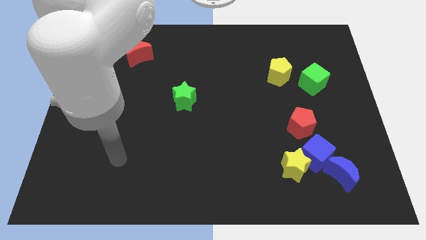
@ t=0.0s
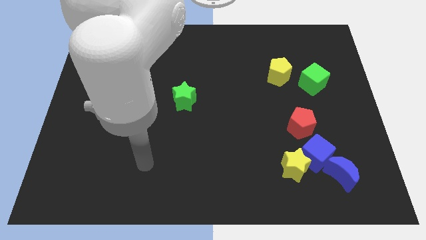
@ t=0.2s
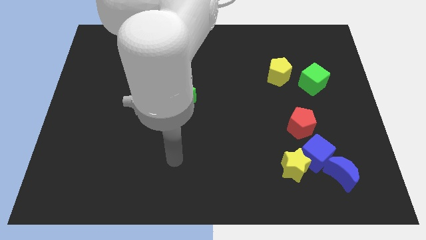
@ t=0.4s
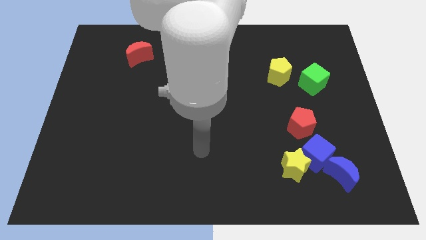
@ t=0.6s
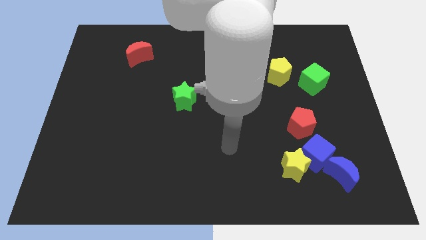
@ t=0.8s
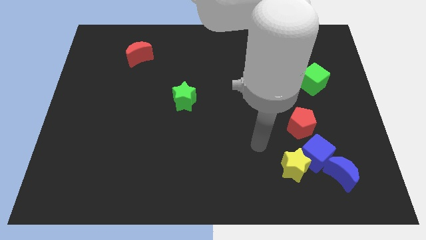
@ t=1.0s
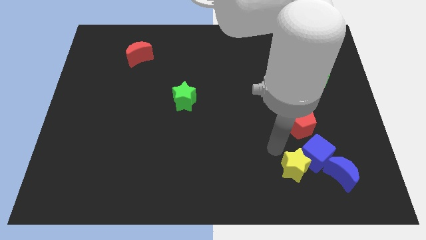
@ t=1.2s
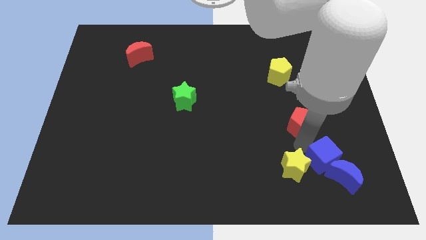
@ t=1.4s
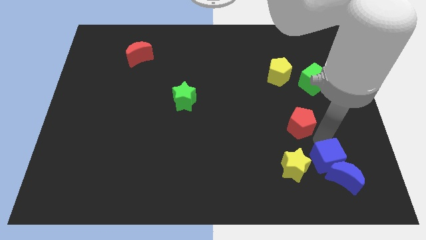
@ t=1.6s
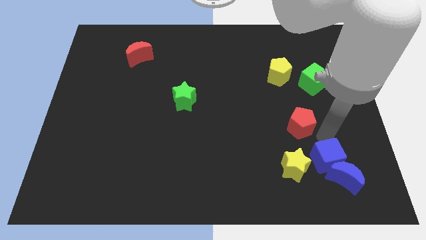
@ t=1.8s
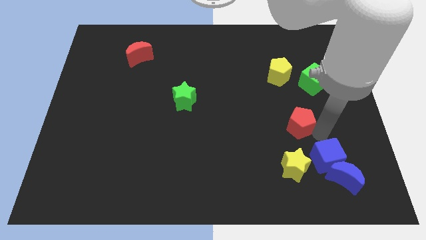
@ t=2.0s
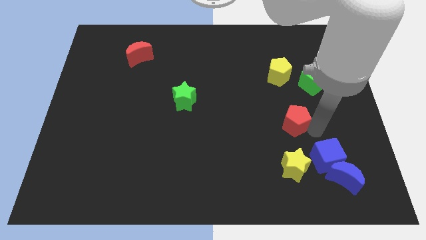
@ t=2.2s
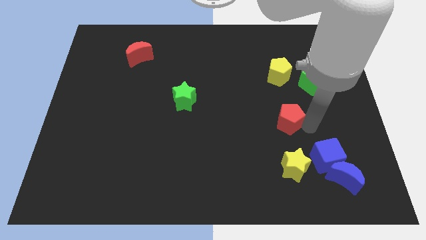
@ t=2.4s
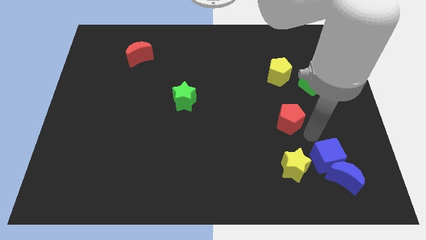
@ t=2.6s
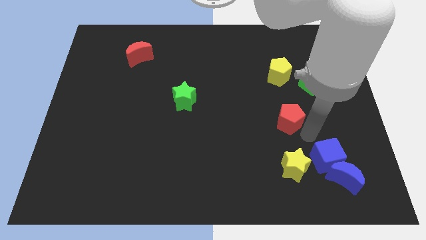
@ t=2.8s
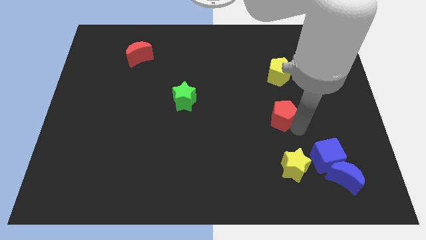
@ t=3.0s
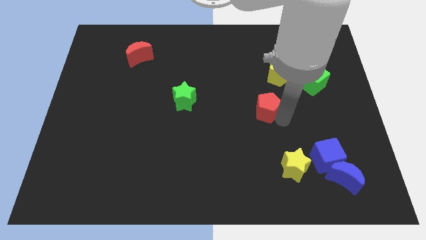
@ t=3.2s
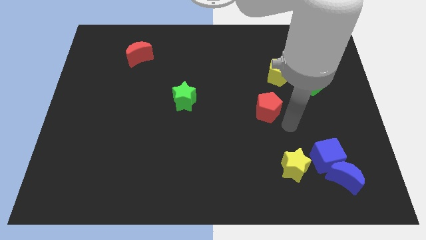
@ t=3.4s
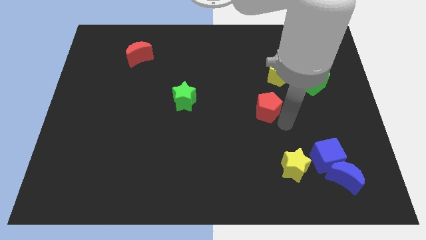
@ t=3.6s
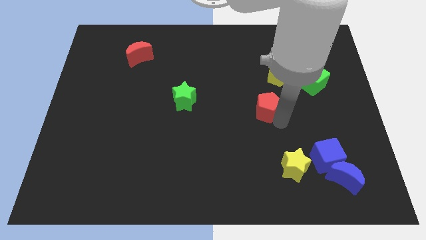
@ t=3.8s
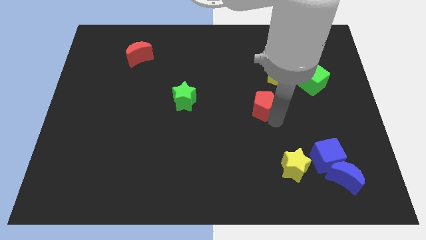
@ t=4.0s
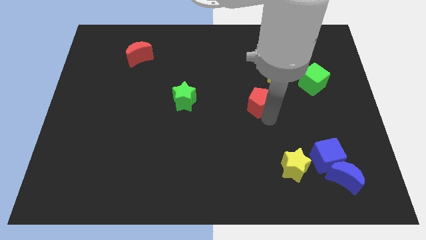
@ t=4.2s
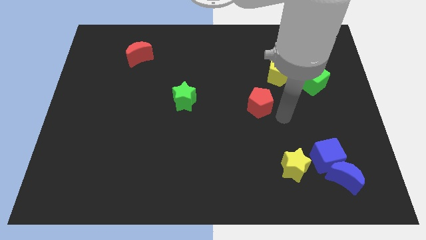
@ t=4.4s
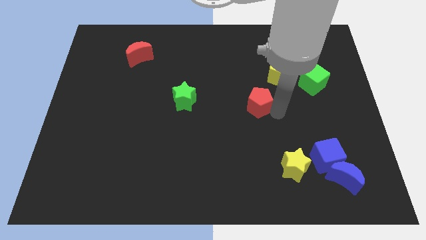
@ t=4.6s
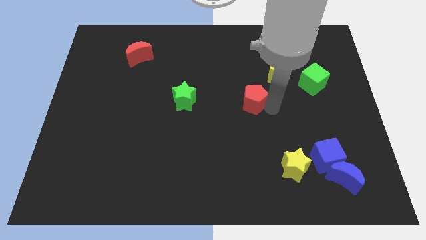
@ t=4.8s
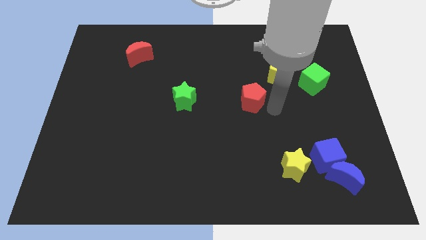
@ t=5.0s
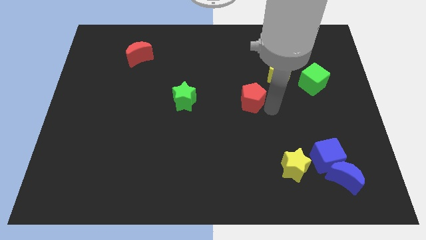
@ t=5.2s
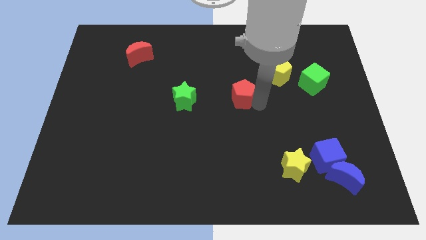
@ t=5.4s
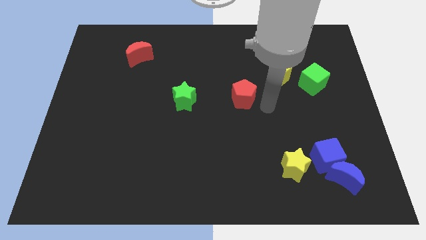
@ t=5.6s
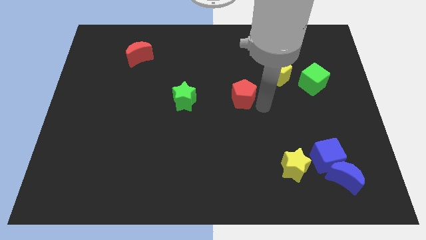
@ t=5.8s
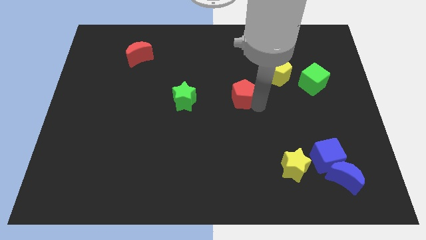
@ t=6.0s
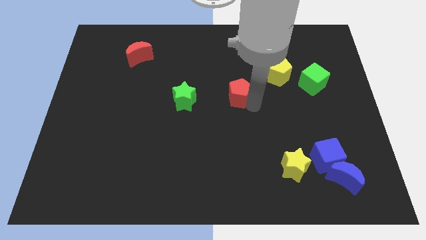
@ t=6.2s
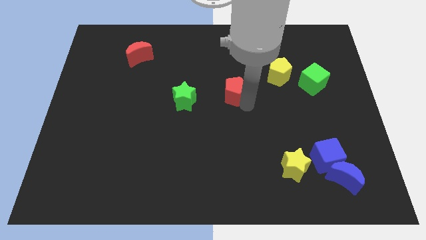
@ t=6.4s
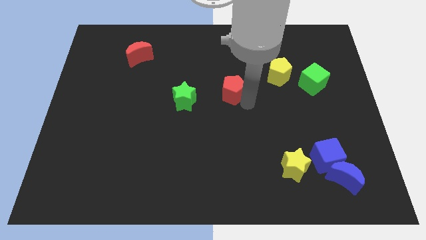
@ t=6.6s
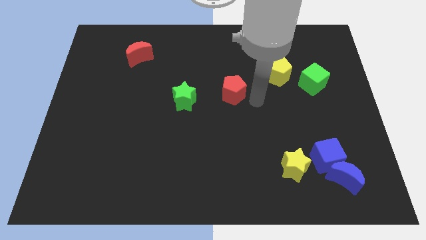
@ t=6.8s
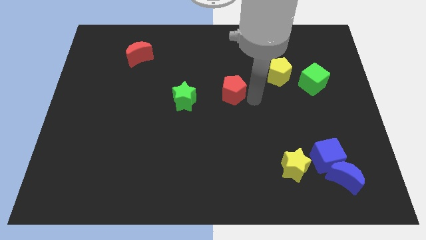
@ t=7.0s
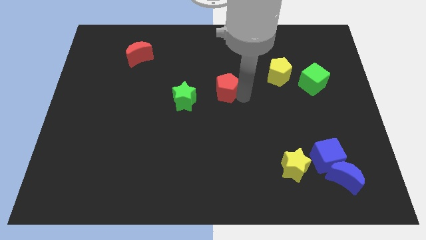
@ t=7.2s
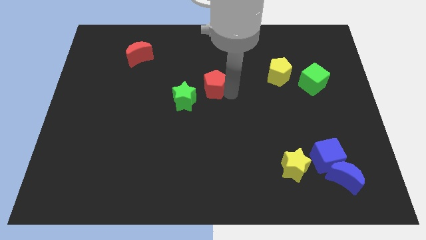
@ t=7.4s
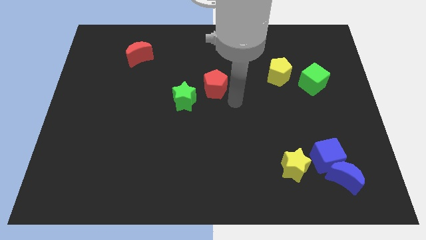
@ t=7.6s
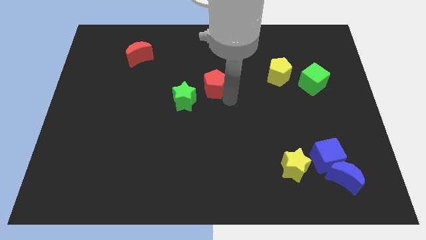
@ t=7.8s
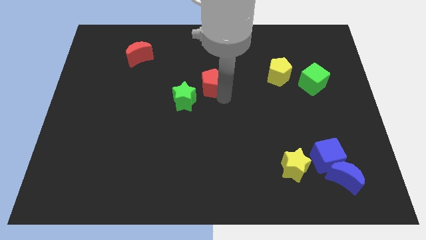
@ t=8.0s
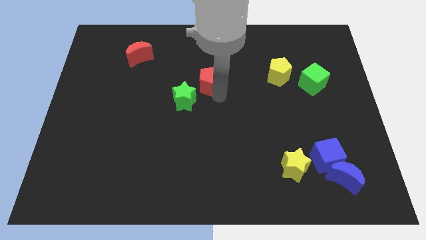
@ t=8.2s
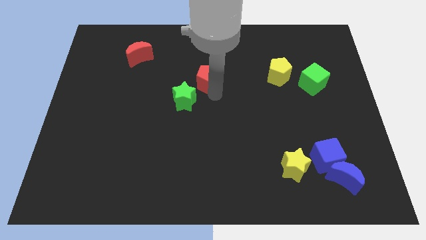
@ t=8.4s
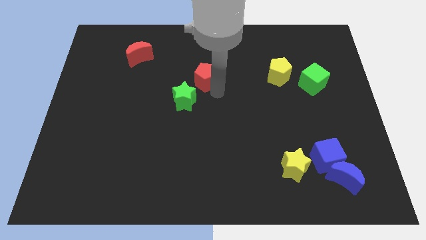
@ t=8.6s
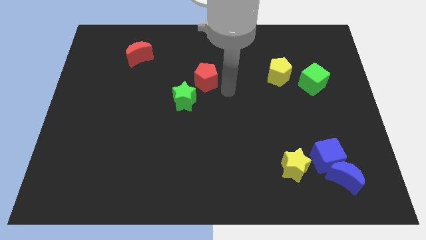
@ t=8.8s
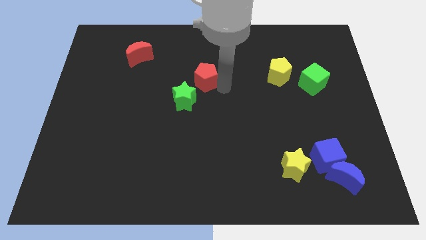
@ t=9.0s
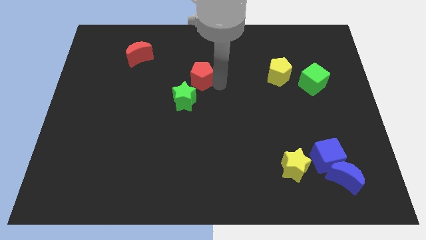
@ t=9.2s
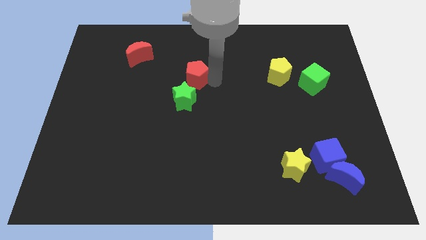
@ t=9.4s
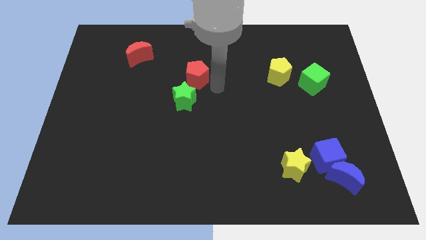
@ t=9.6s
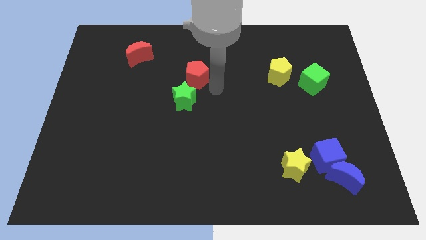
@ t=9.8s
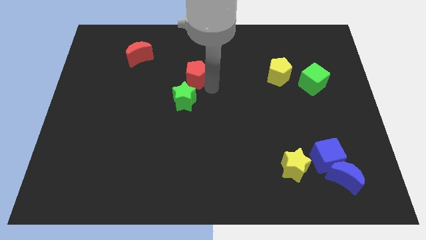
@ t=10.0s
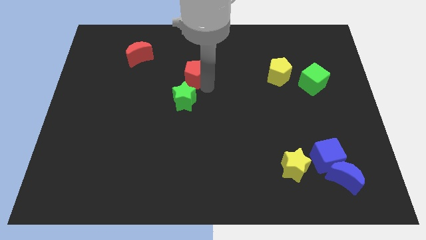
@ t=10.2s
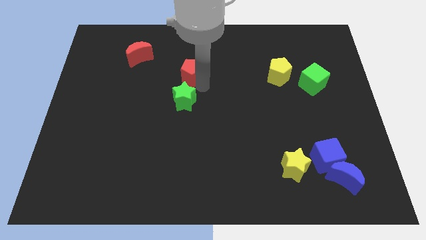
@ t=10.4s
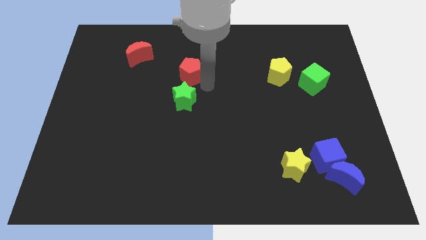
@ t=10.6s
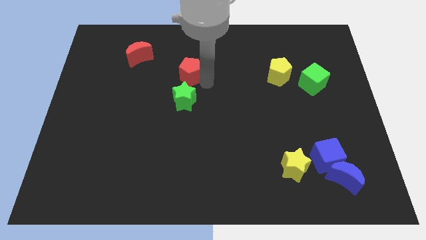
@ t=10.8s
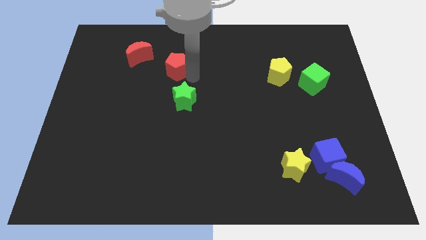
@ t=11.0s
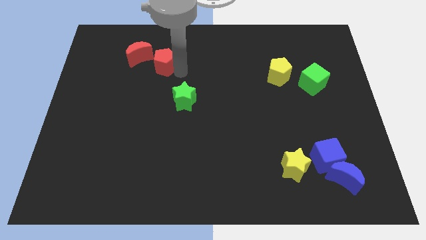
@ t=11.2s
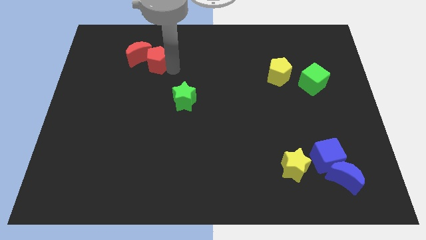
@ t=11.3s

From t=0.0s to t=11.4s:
slide the red pentagon towards the red moon

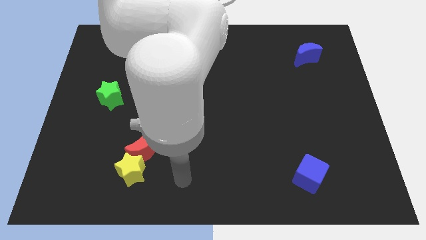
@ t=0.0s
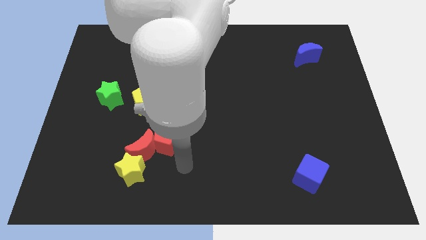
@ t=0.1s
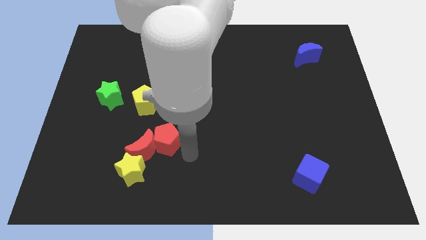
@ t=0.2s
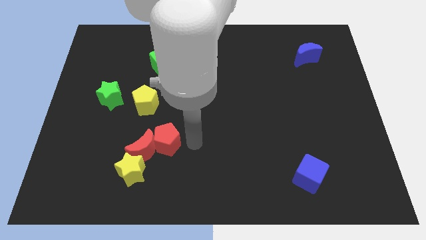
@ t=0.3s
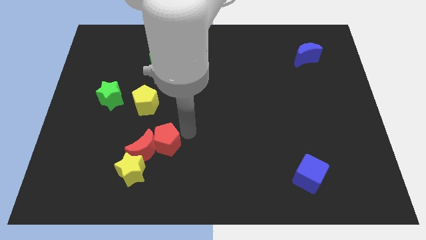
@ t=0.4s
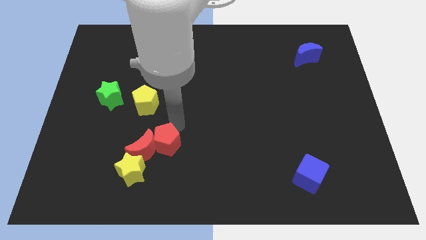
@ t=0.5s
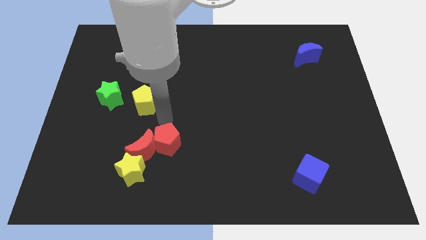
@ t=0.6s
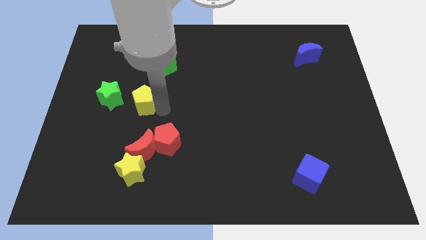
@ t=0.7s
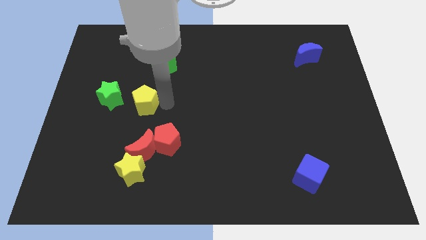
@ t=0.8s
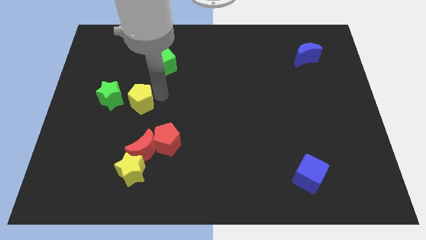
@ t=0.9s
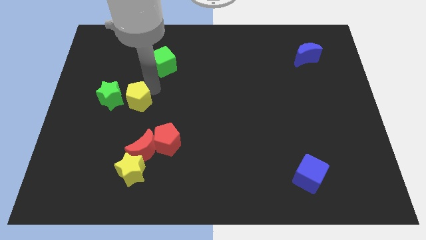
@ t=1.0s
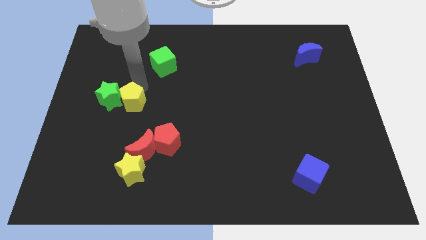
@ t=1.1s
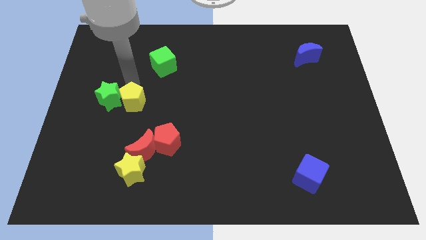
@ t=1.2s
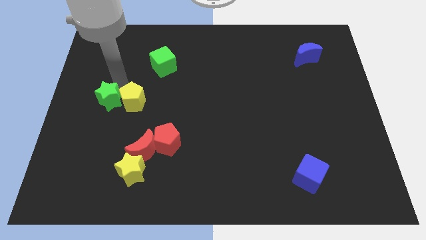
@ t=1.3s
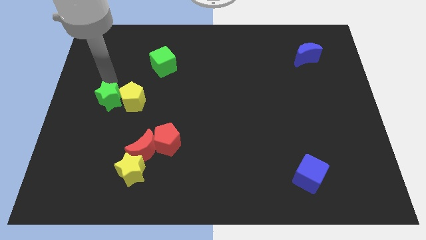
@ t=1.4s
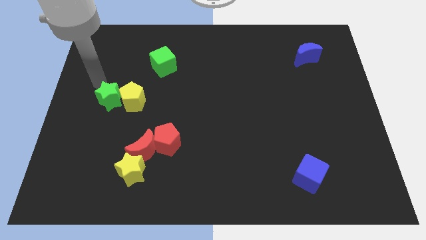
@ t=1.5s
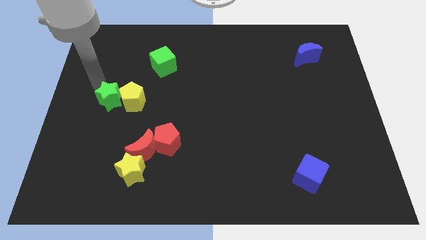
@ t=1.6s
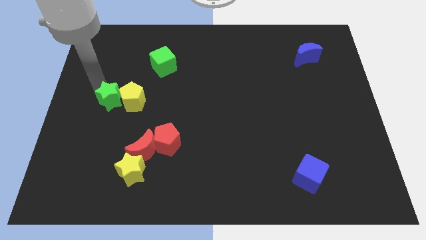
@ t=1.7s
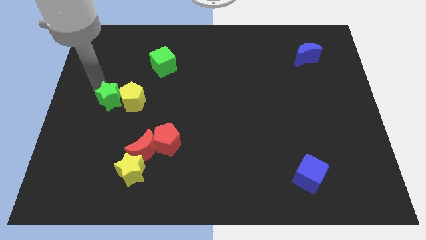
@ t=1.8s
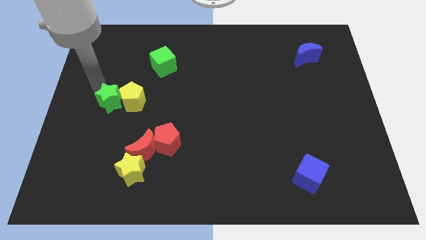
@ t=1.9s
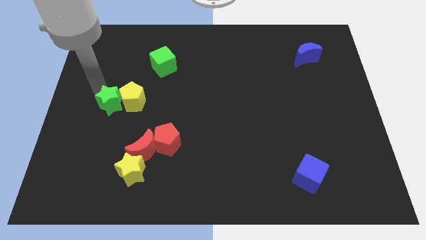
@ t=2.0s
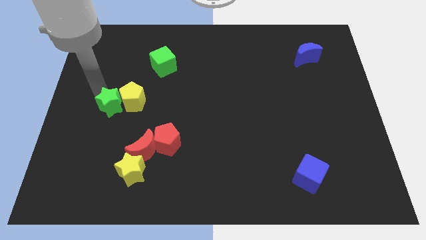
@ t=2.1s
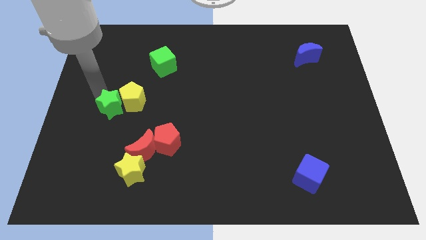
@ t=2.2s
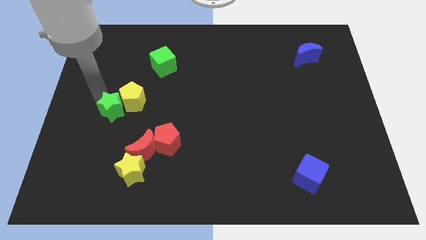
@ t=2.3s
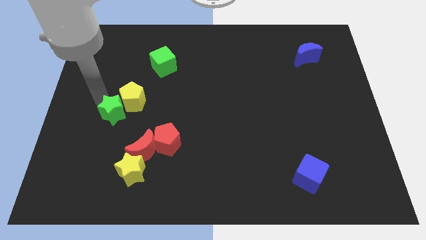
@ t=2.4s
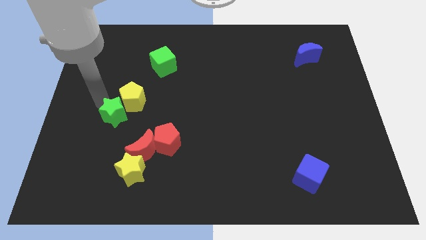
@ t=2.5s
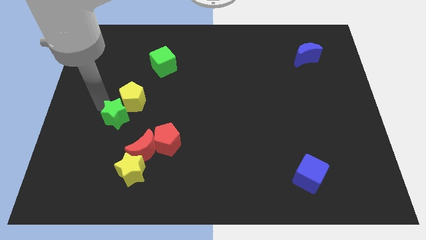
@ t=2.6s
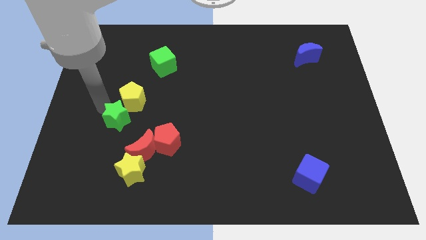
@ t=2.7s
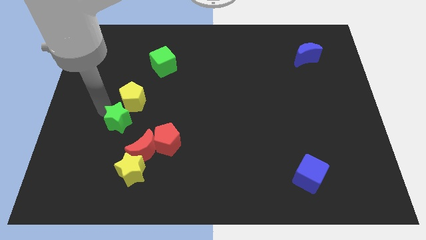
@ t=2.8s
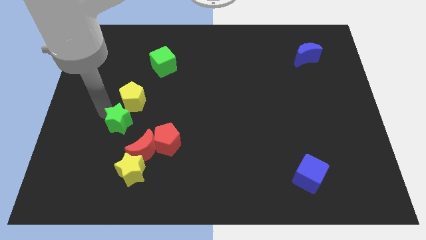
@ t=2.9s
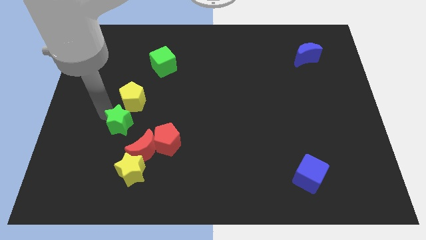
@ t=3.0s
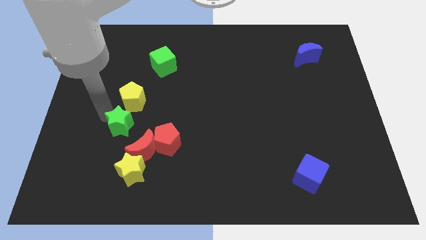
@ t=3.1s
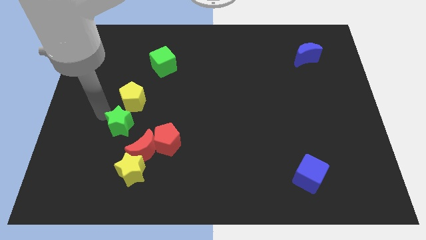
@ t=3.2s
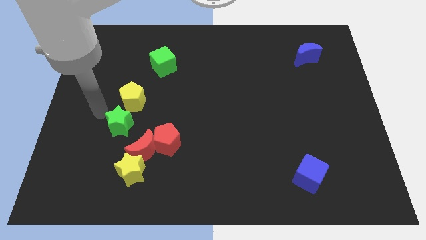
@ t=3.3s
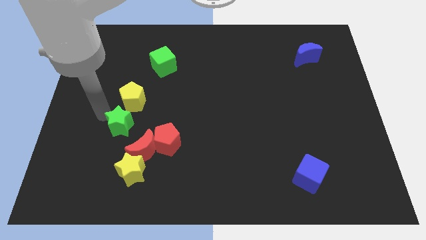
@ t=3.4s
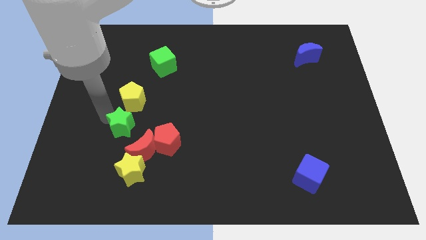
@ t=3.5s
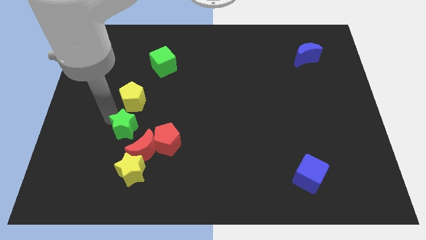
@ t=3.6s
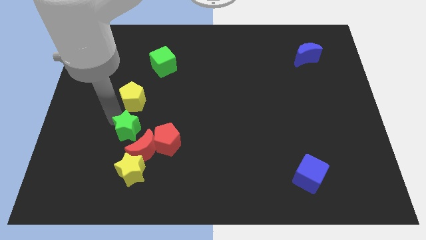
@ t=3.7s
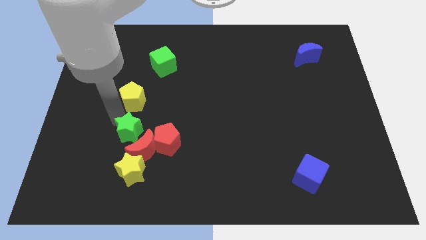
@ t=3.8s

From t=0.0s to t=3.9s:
slide the green star to the red moon
